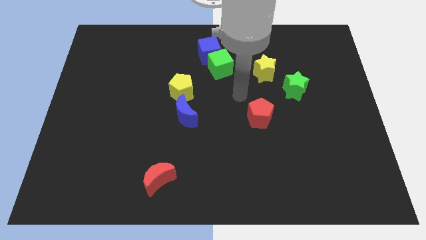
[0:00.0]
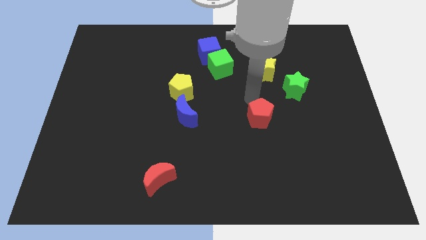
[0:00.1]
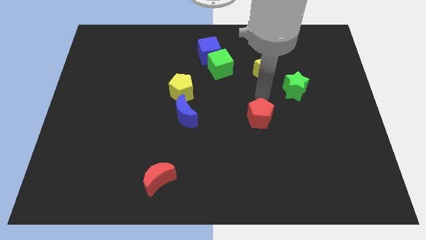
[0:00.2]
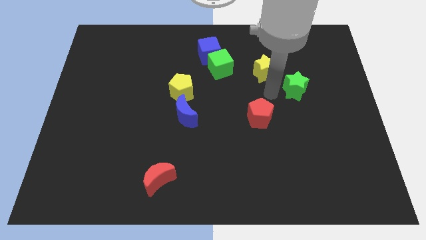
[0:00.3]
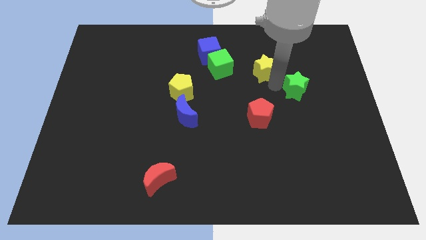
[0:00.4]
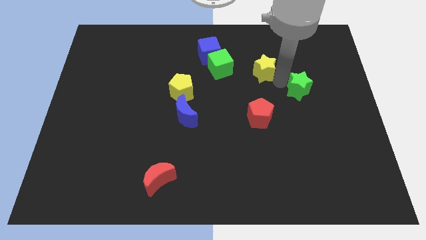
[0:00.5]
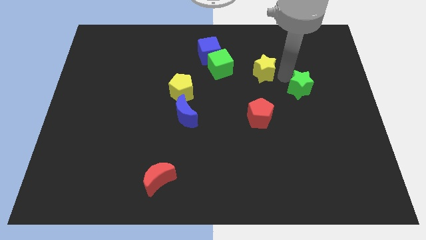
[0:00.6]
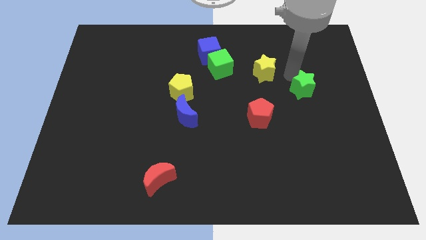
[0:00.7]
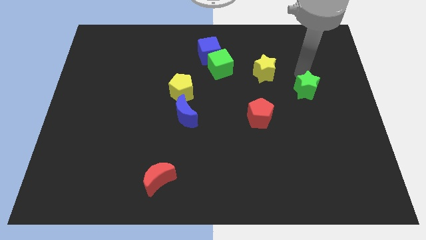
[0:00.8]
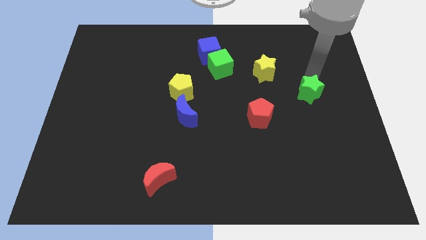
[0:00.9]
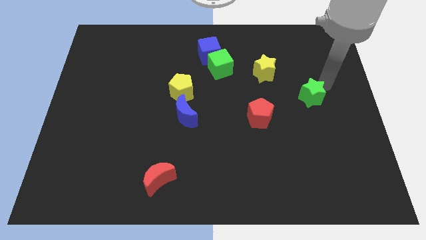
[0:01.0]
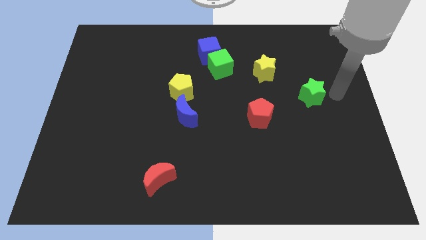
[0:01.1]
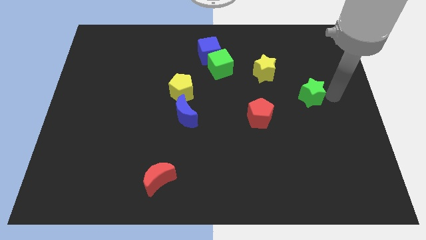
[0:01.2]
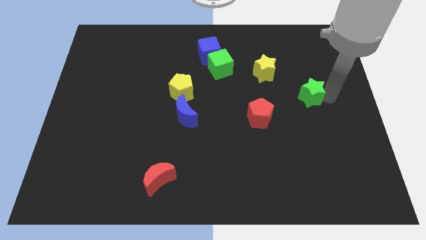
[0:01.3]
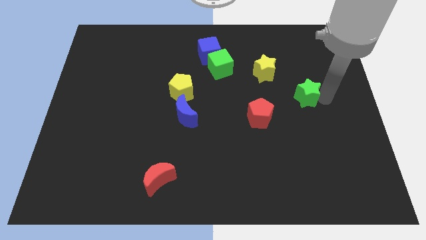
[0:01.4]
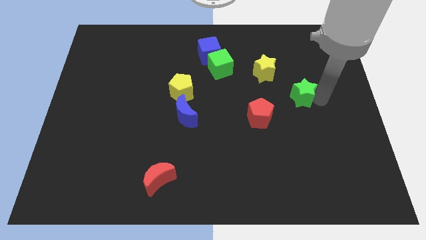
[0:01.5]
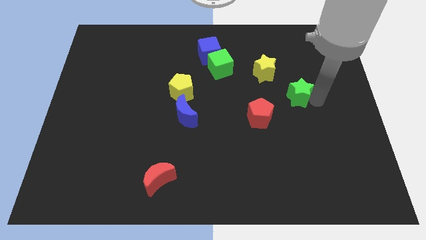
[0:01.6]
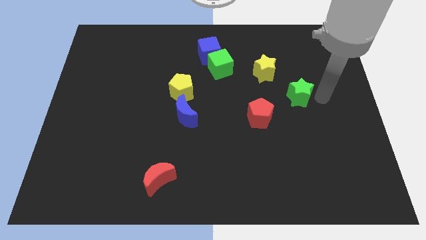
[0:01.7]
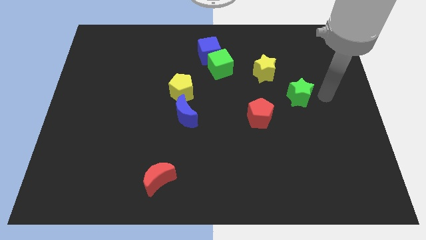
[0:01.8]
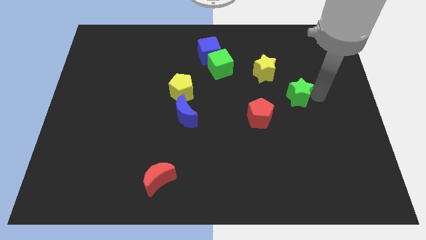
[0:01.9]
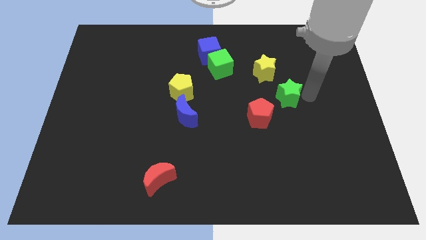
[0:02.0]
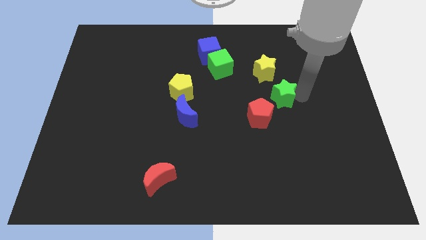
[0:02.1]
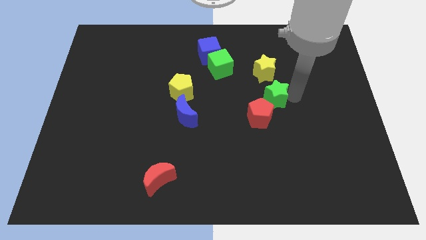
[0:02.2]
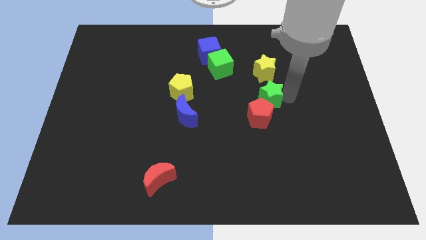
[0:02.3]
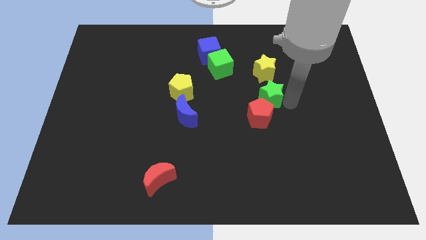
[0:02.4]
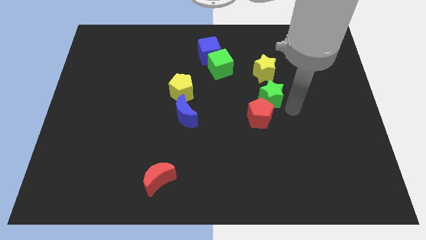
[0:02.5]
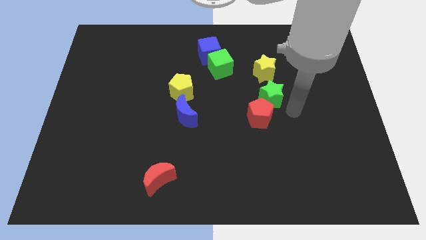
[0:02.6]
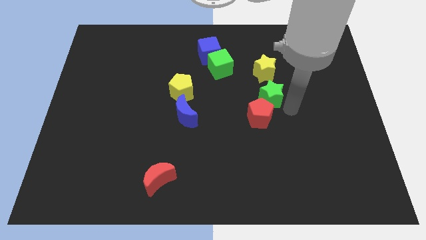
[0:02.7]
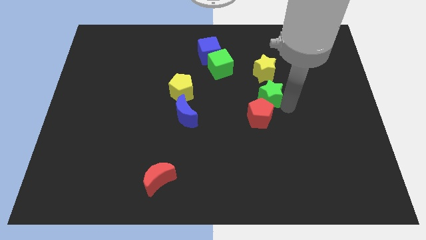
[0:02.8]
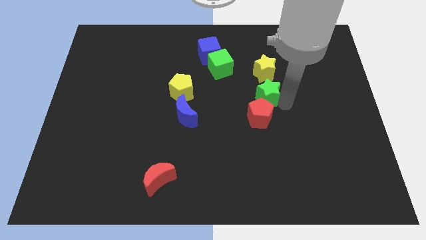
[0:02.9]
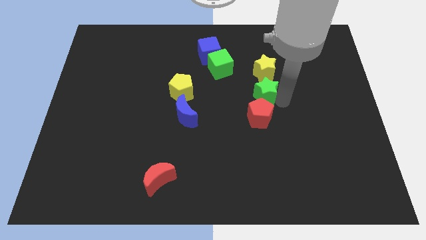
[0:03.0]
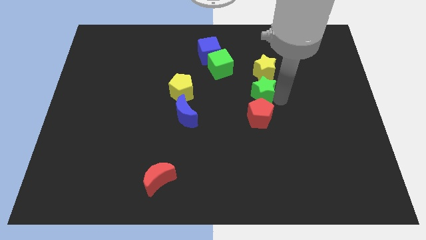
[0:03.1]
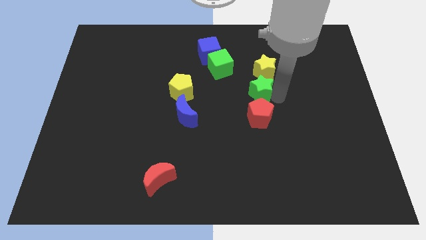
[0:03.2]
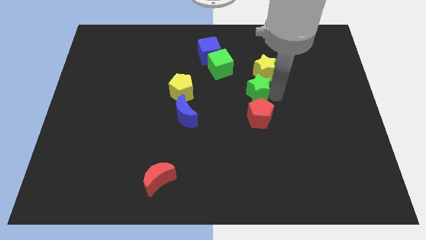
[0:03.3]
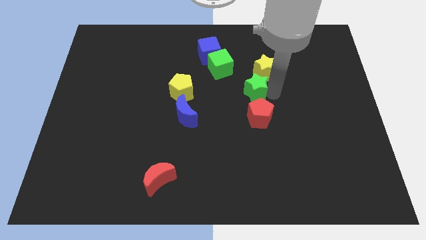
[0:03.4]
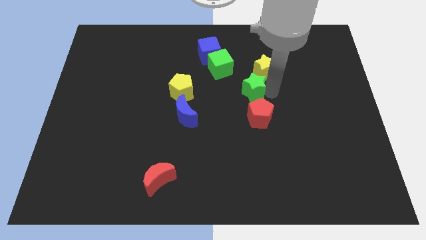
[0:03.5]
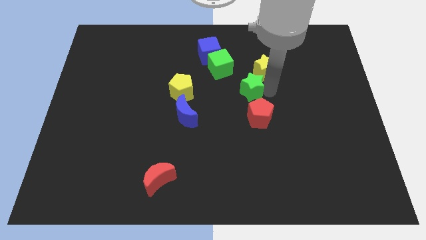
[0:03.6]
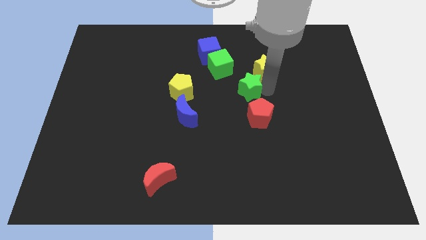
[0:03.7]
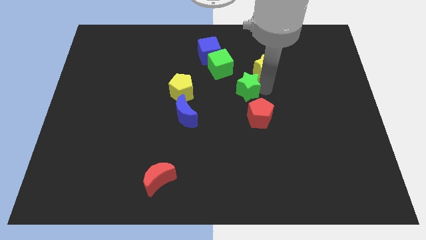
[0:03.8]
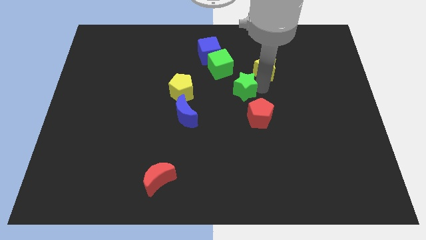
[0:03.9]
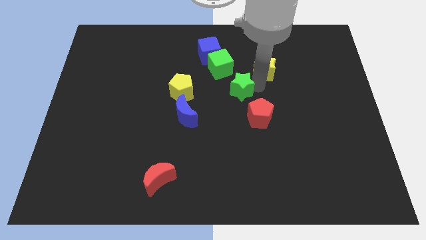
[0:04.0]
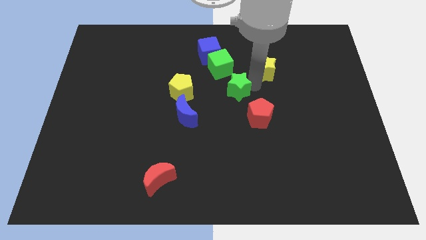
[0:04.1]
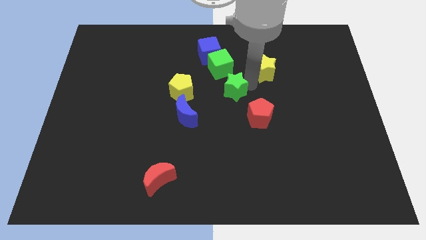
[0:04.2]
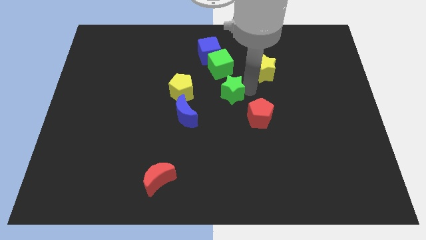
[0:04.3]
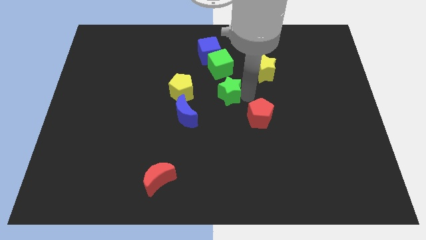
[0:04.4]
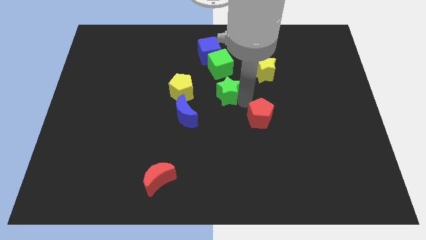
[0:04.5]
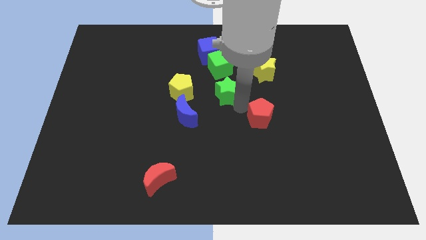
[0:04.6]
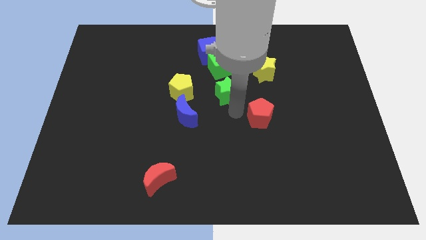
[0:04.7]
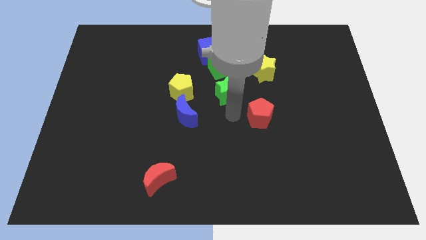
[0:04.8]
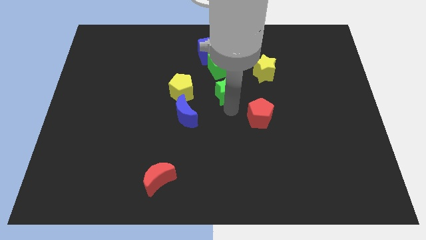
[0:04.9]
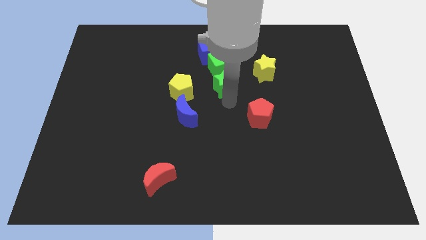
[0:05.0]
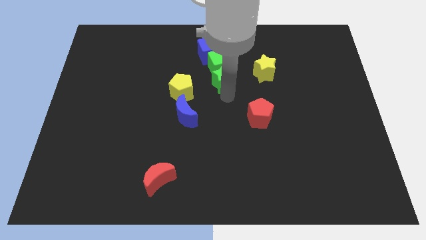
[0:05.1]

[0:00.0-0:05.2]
put the green star towards the green cube

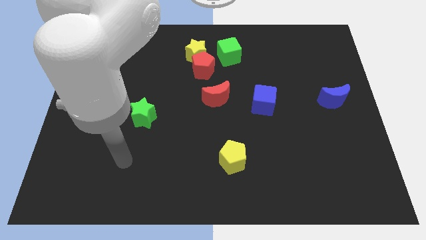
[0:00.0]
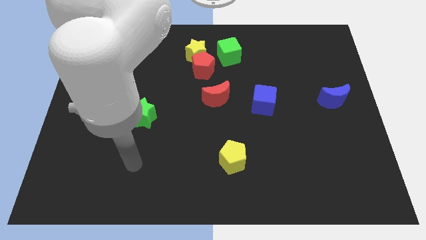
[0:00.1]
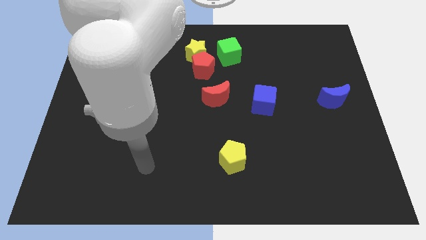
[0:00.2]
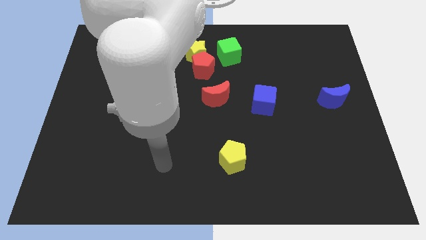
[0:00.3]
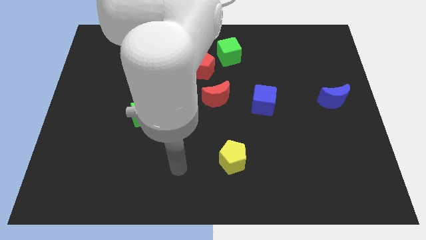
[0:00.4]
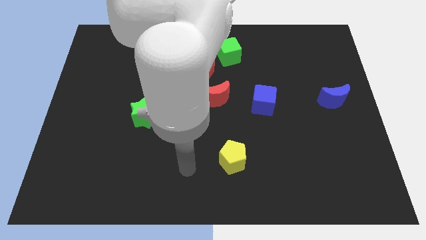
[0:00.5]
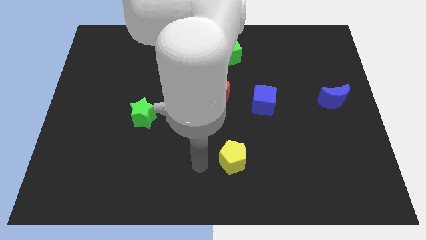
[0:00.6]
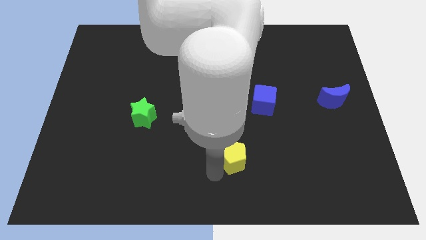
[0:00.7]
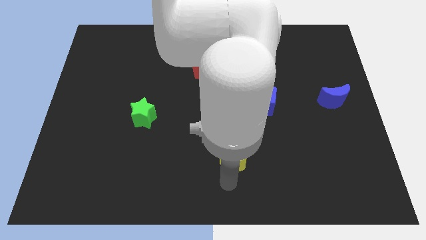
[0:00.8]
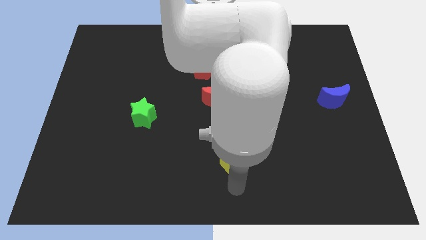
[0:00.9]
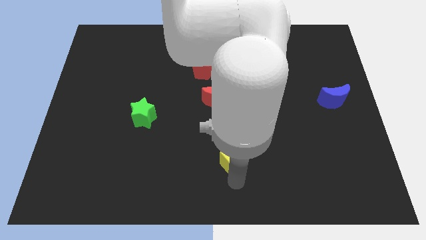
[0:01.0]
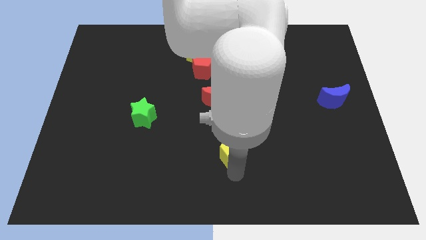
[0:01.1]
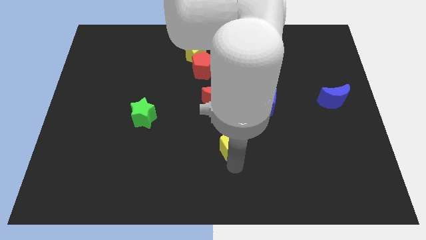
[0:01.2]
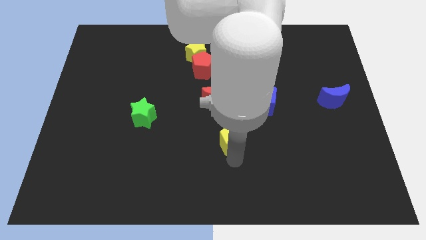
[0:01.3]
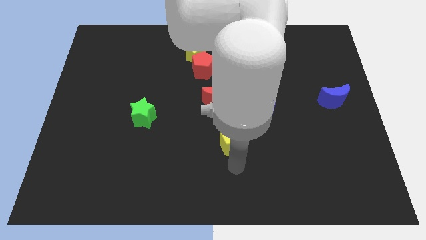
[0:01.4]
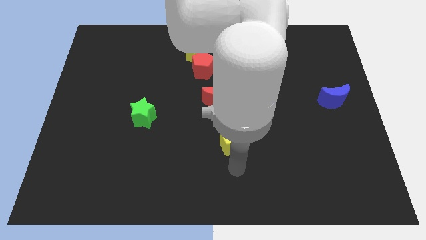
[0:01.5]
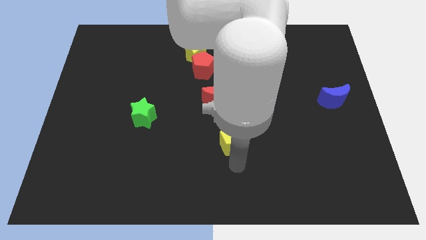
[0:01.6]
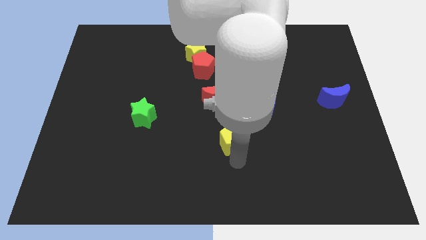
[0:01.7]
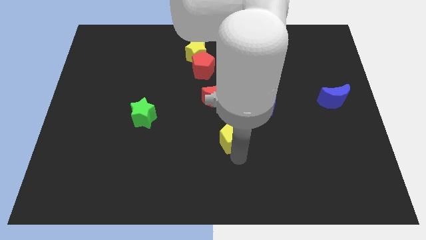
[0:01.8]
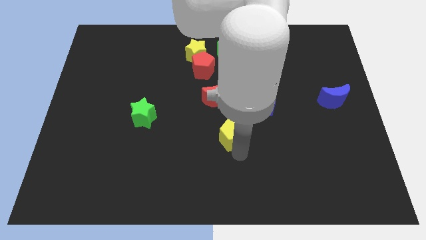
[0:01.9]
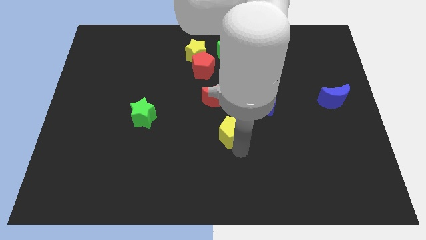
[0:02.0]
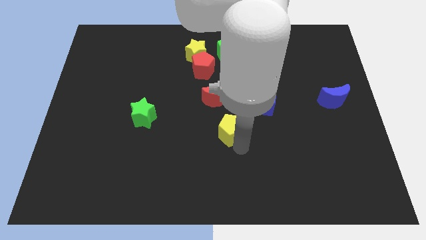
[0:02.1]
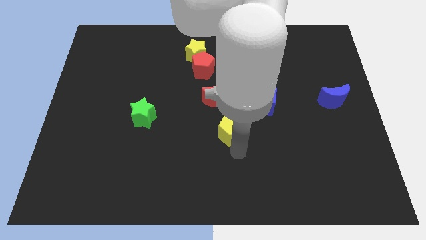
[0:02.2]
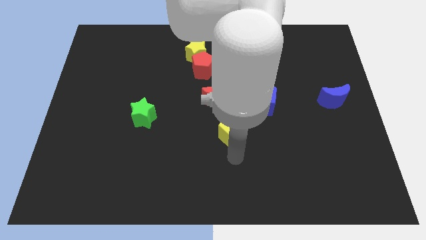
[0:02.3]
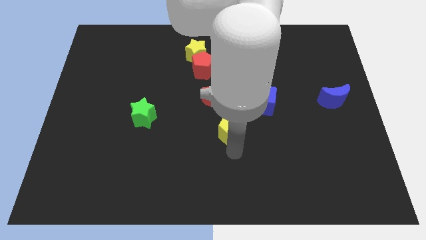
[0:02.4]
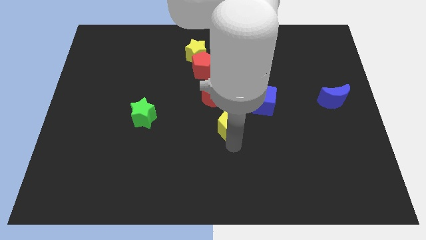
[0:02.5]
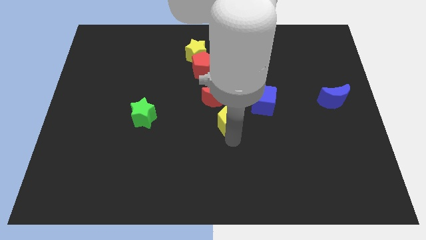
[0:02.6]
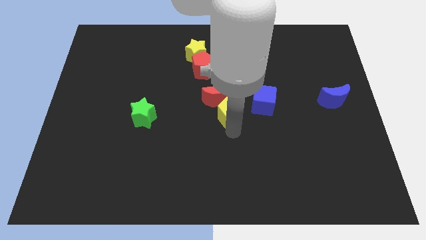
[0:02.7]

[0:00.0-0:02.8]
push the yellow pentagon to the red moon
